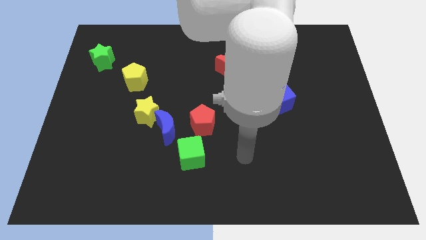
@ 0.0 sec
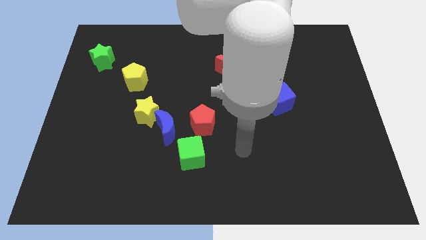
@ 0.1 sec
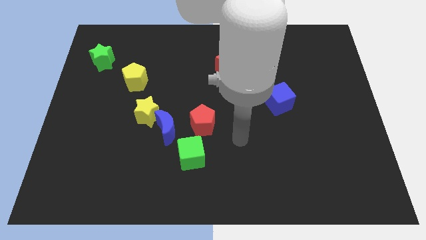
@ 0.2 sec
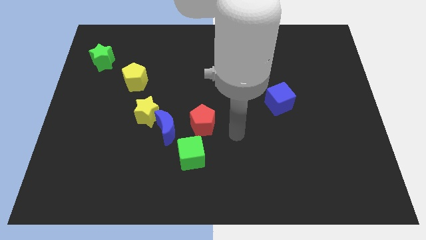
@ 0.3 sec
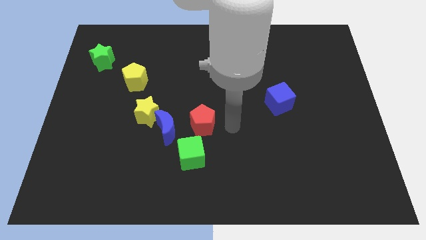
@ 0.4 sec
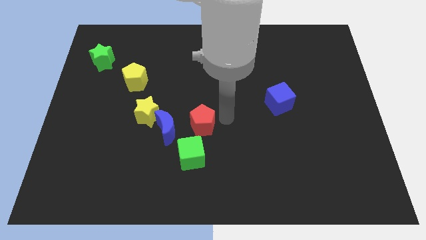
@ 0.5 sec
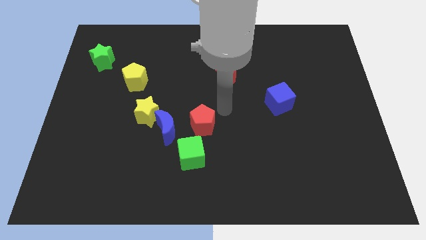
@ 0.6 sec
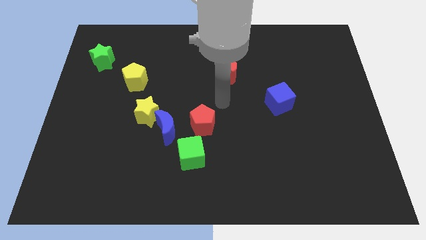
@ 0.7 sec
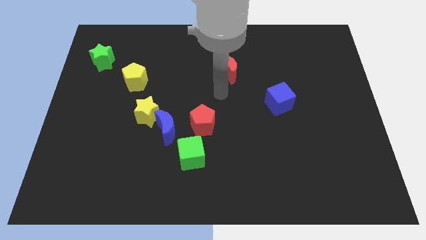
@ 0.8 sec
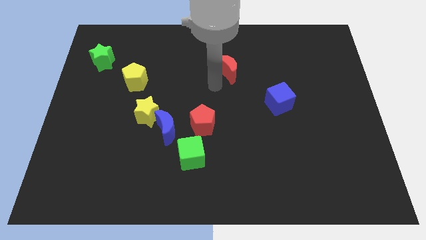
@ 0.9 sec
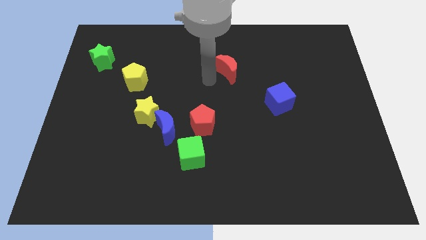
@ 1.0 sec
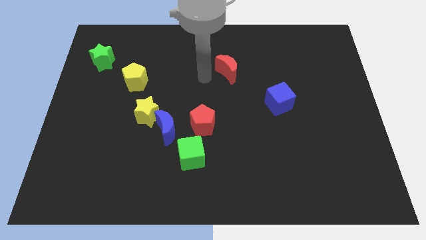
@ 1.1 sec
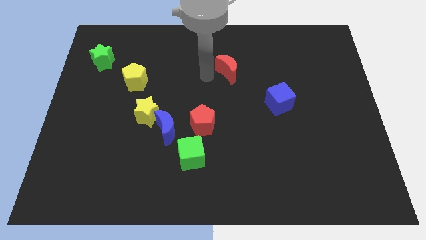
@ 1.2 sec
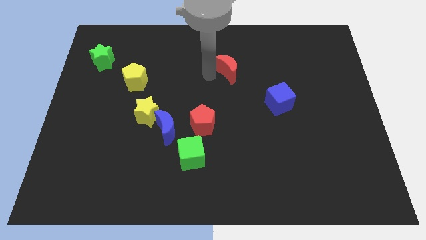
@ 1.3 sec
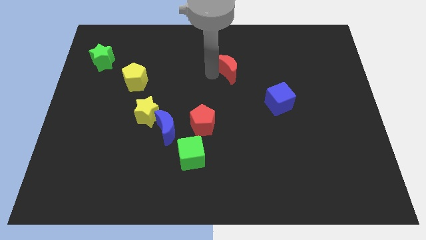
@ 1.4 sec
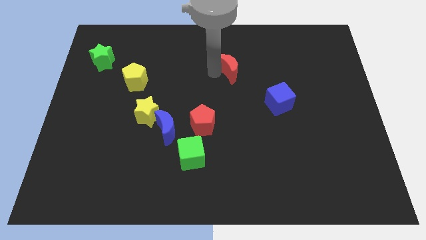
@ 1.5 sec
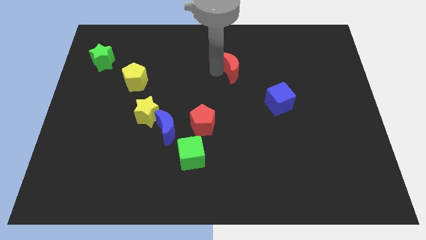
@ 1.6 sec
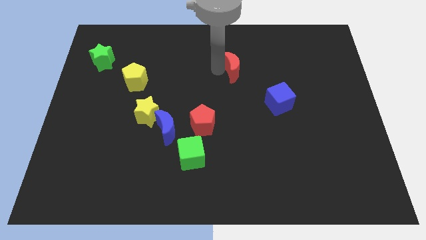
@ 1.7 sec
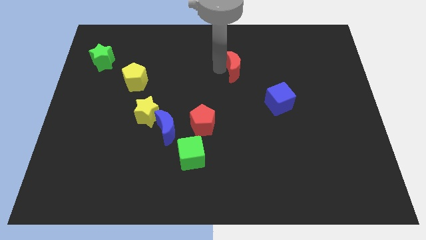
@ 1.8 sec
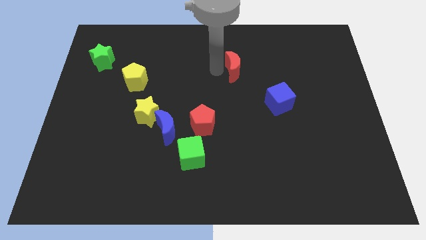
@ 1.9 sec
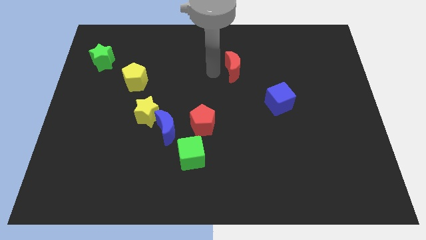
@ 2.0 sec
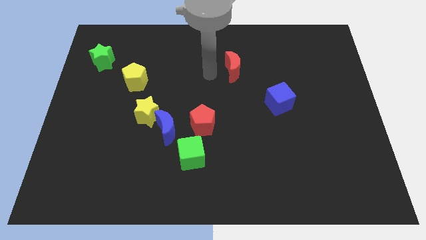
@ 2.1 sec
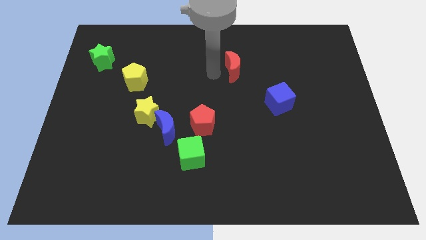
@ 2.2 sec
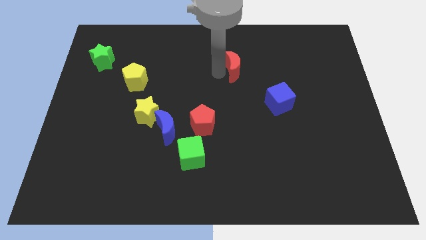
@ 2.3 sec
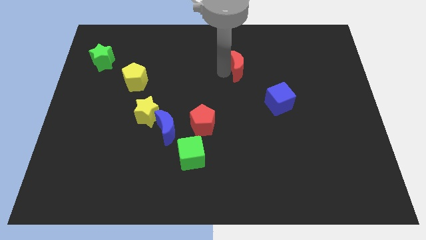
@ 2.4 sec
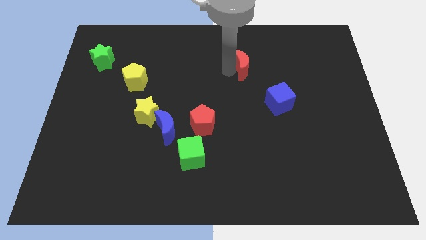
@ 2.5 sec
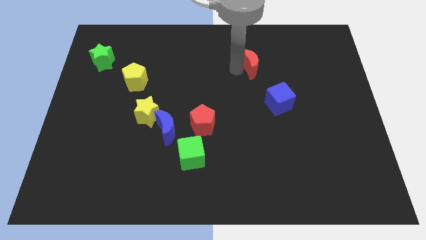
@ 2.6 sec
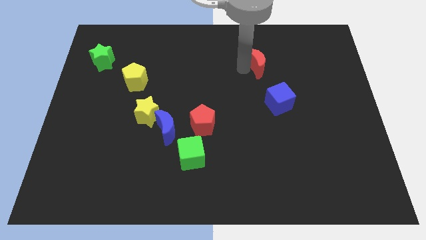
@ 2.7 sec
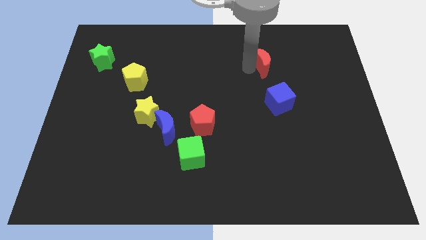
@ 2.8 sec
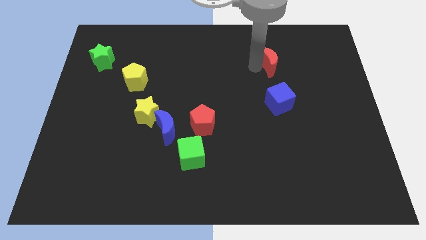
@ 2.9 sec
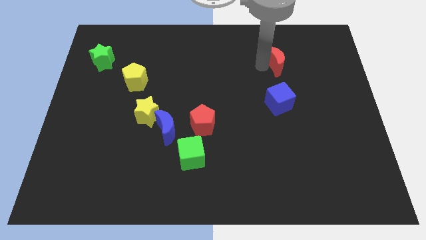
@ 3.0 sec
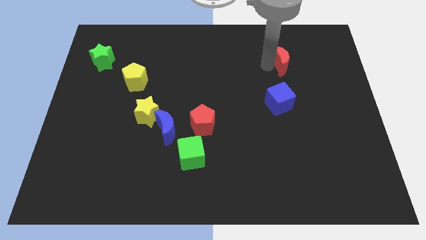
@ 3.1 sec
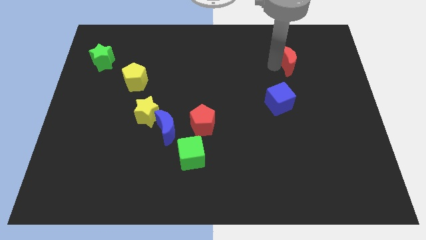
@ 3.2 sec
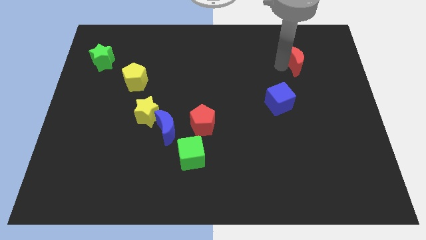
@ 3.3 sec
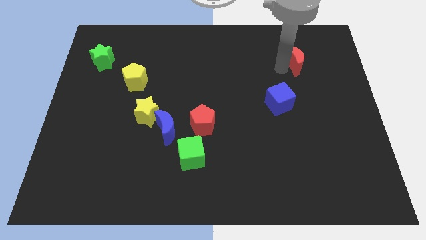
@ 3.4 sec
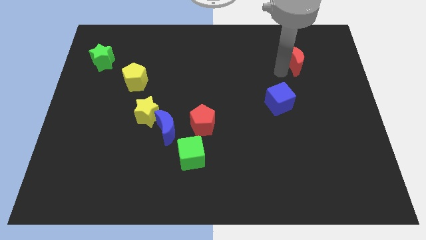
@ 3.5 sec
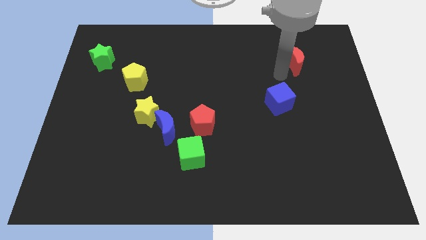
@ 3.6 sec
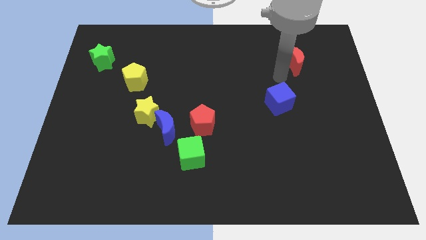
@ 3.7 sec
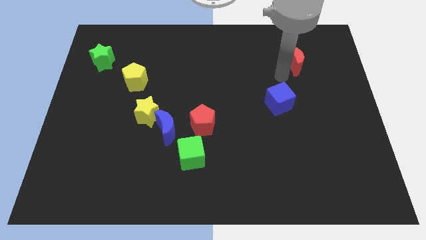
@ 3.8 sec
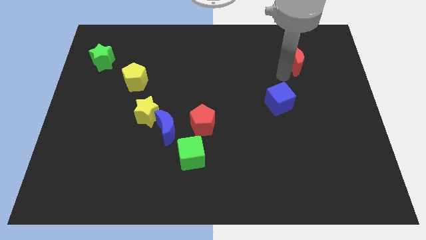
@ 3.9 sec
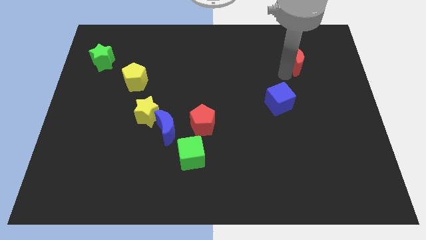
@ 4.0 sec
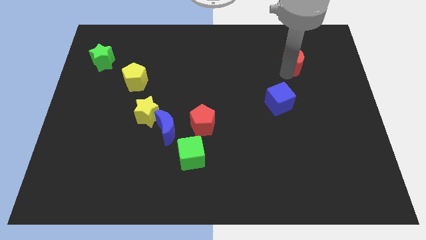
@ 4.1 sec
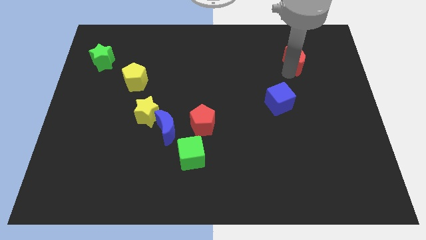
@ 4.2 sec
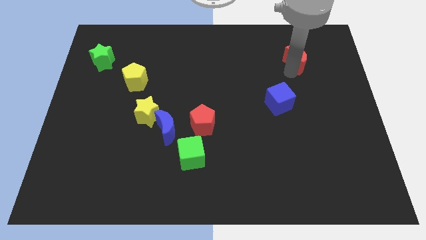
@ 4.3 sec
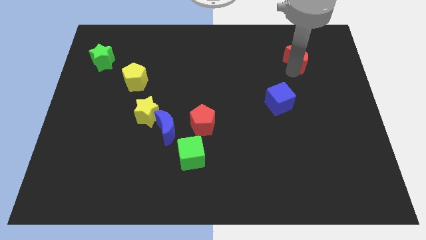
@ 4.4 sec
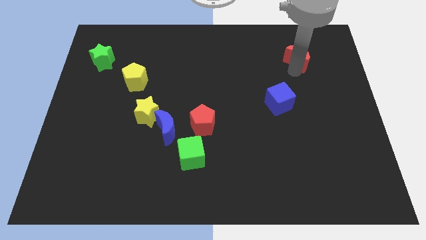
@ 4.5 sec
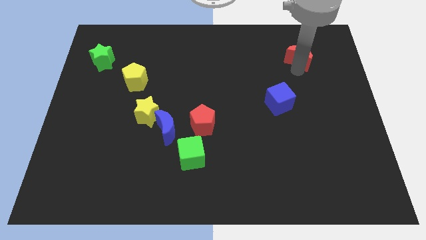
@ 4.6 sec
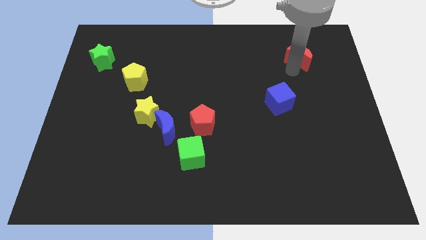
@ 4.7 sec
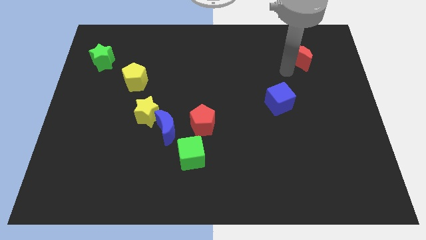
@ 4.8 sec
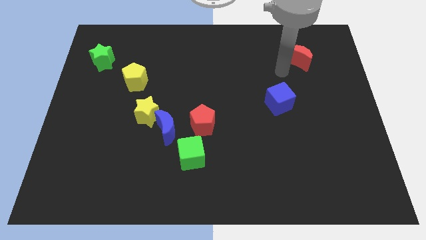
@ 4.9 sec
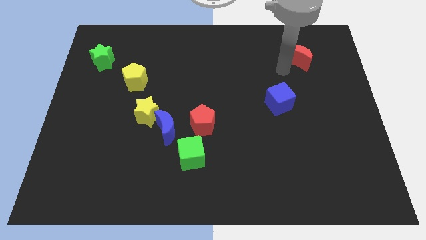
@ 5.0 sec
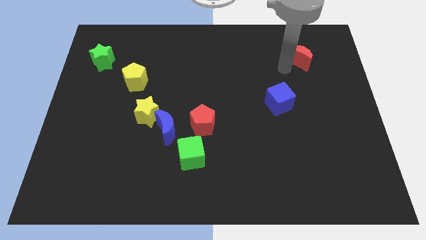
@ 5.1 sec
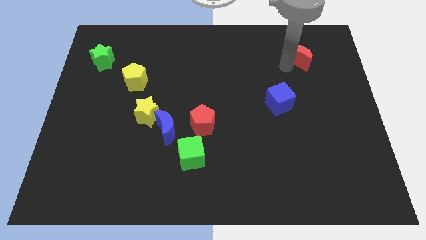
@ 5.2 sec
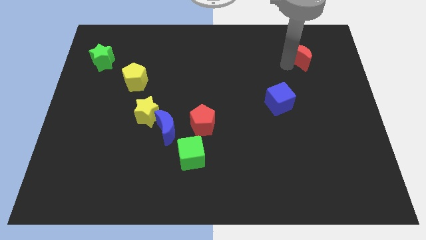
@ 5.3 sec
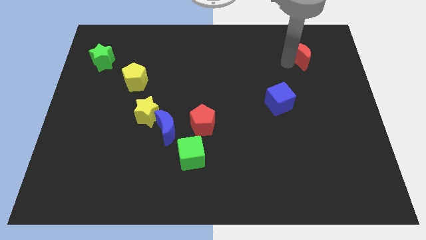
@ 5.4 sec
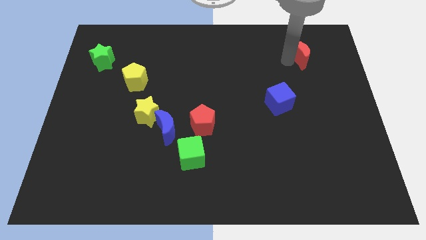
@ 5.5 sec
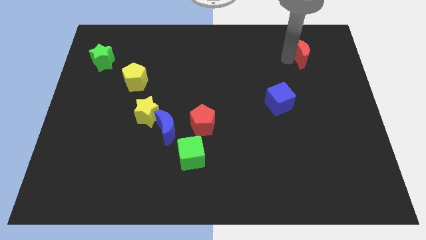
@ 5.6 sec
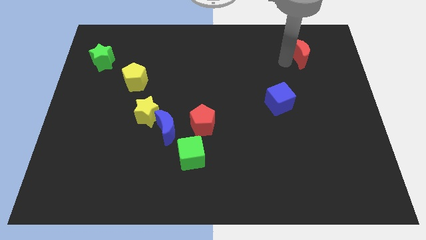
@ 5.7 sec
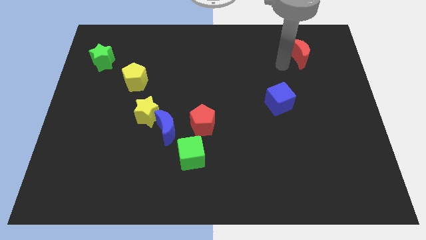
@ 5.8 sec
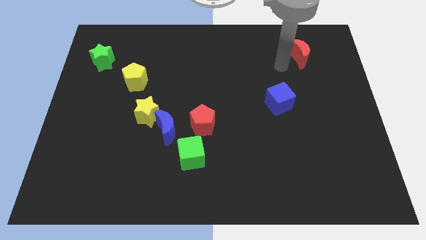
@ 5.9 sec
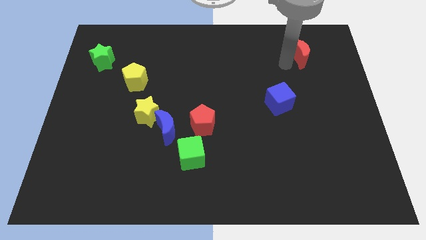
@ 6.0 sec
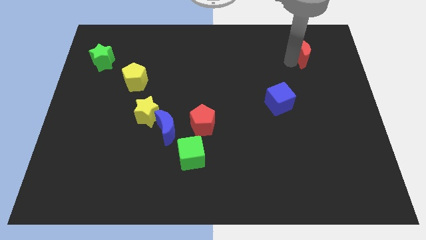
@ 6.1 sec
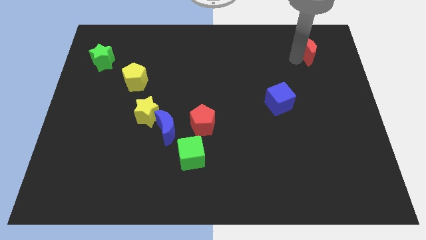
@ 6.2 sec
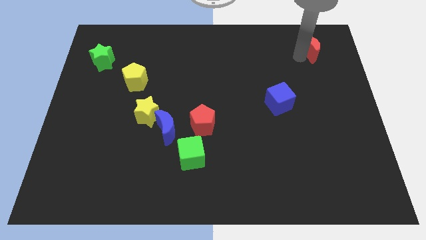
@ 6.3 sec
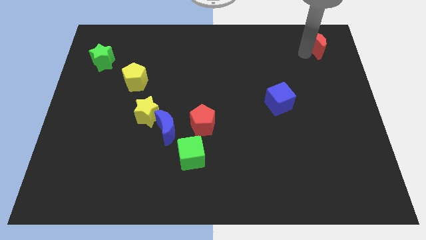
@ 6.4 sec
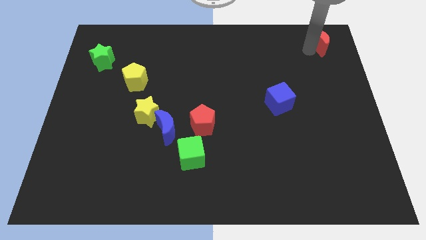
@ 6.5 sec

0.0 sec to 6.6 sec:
push the red moon to the top right
